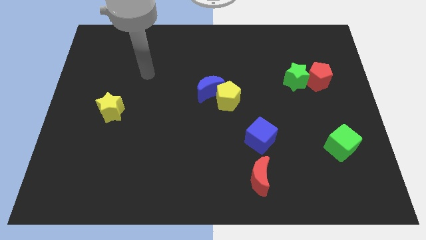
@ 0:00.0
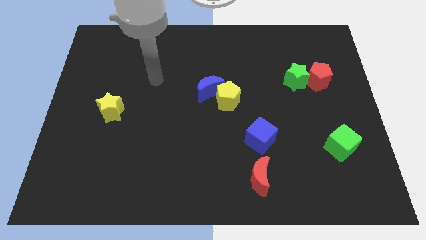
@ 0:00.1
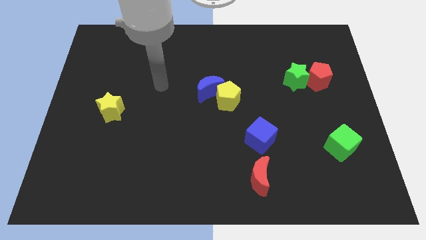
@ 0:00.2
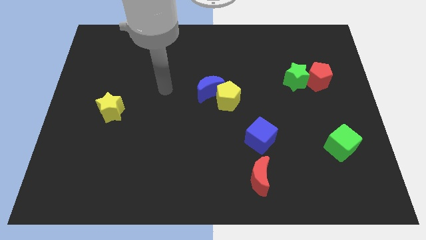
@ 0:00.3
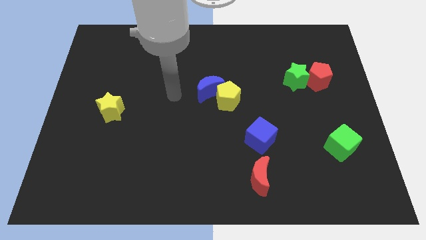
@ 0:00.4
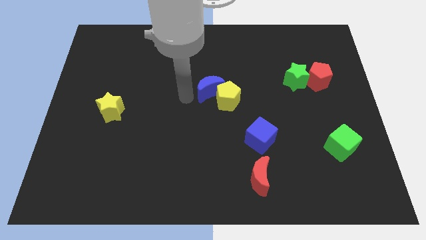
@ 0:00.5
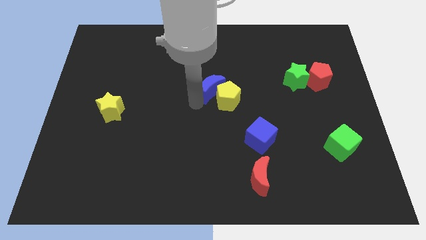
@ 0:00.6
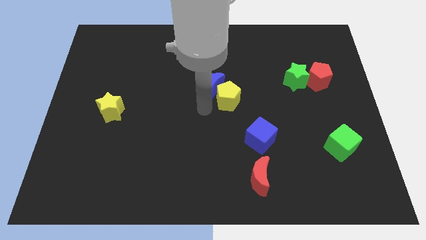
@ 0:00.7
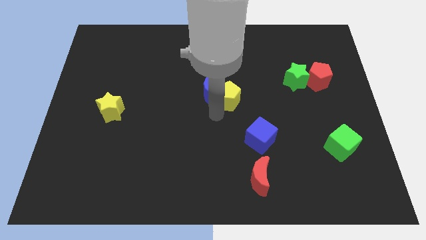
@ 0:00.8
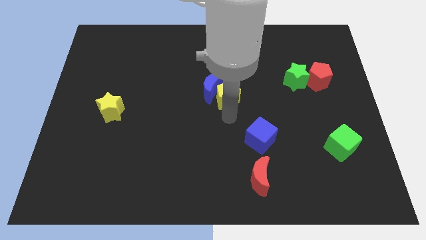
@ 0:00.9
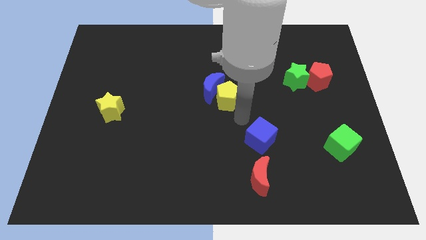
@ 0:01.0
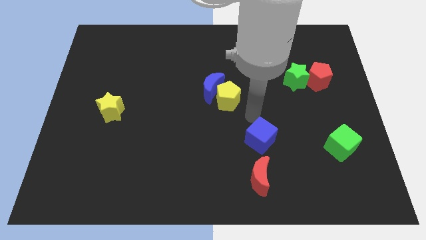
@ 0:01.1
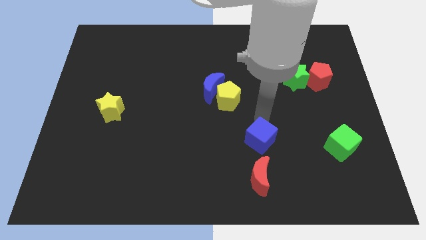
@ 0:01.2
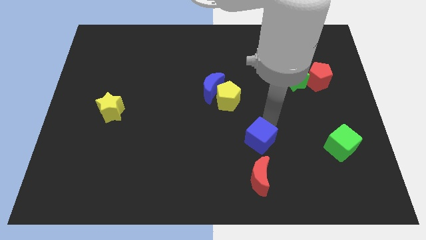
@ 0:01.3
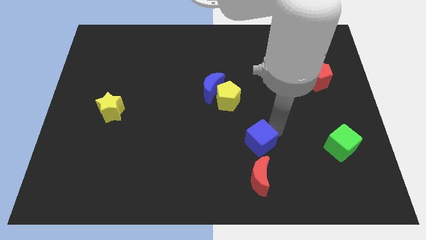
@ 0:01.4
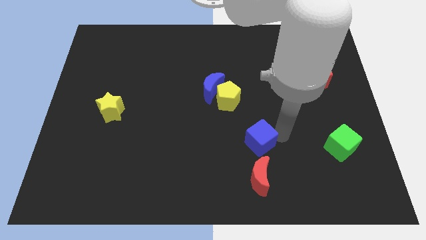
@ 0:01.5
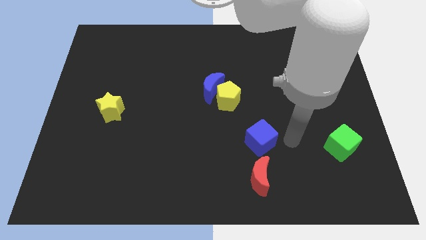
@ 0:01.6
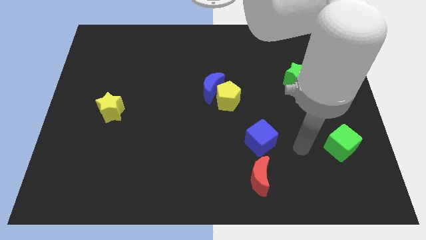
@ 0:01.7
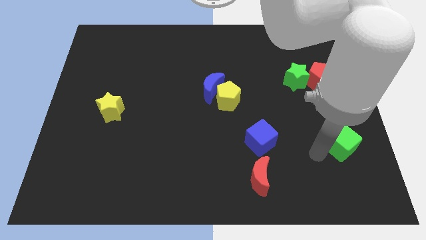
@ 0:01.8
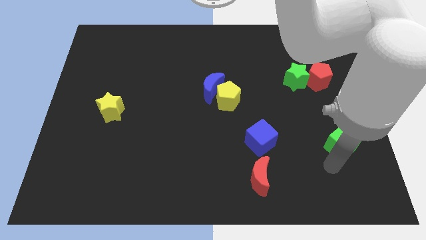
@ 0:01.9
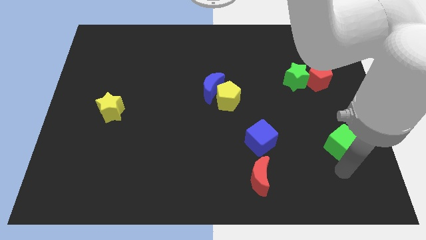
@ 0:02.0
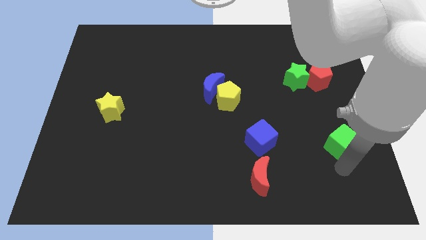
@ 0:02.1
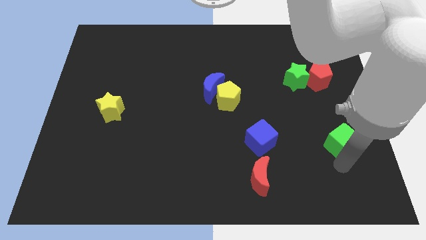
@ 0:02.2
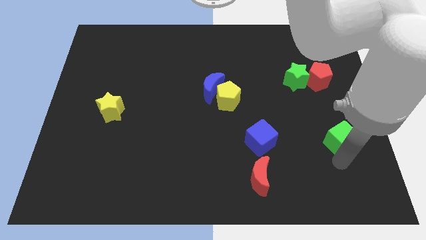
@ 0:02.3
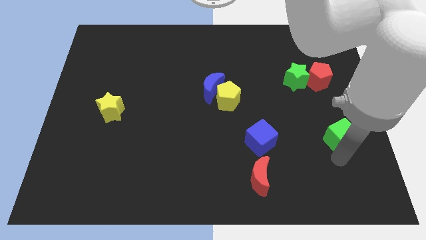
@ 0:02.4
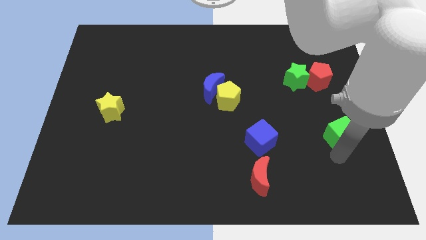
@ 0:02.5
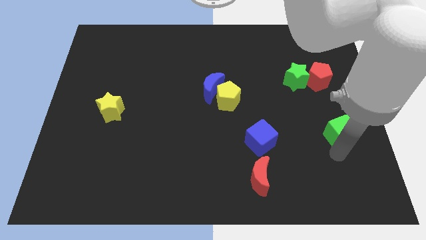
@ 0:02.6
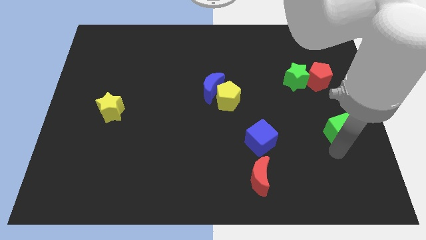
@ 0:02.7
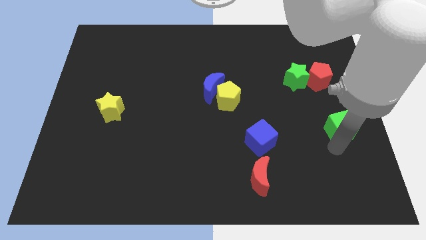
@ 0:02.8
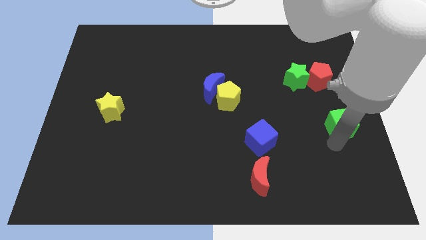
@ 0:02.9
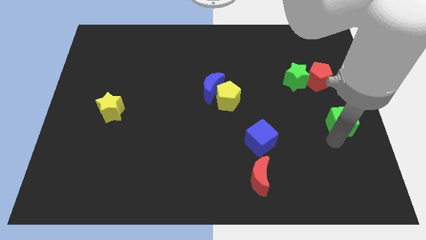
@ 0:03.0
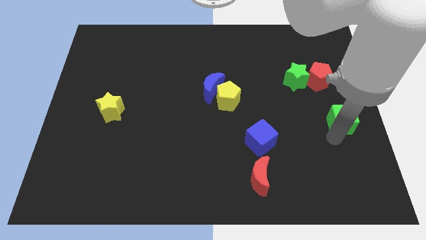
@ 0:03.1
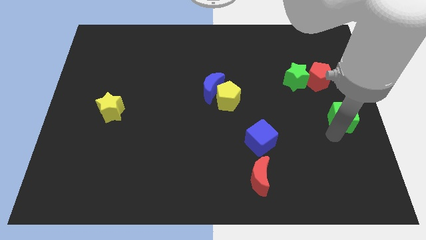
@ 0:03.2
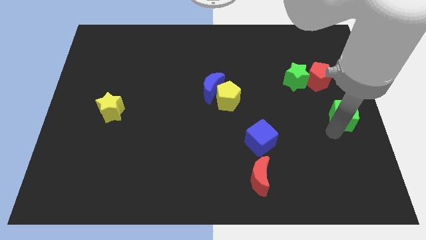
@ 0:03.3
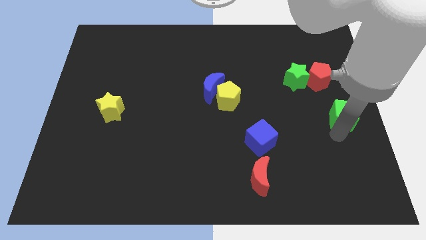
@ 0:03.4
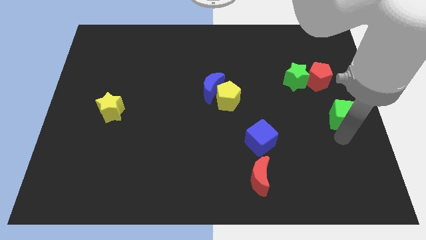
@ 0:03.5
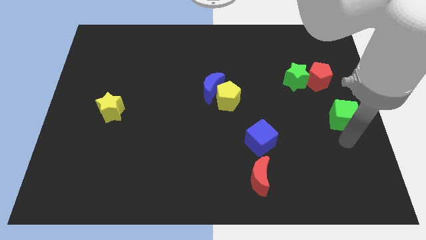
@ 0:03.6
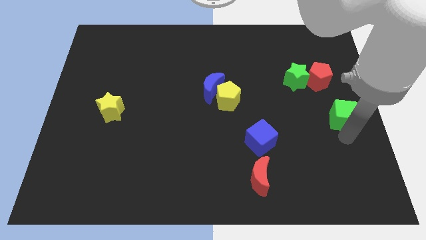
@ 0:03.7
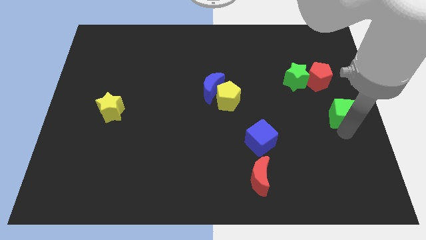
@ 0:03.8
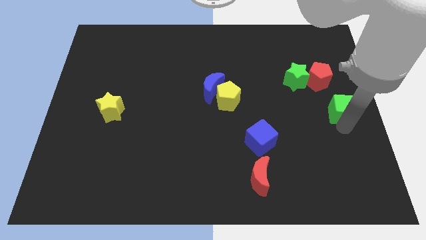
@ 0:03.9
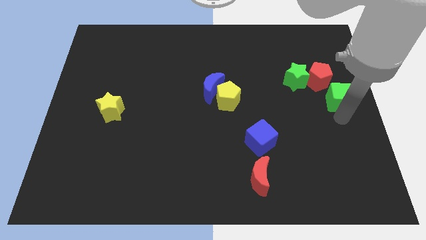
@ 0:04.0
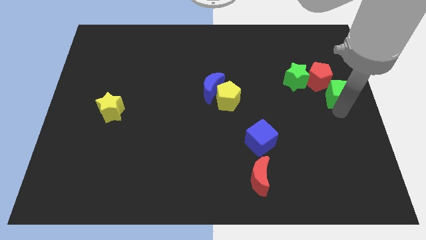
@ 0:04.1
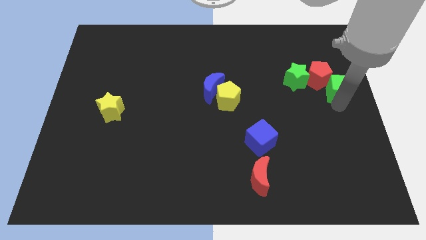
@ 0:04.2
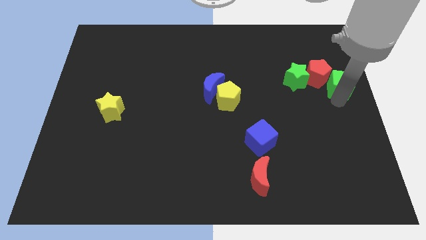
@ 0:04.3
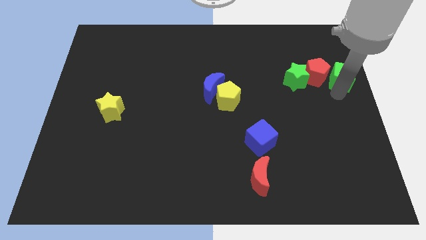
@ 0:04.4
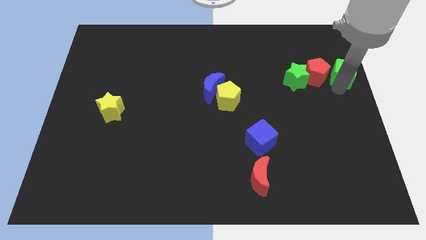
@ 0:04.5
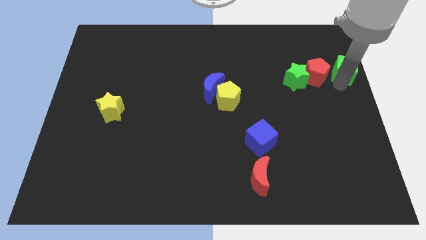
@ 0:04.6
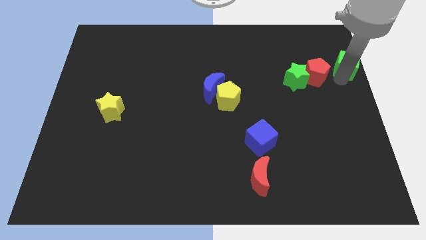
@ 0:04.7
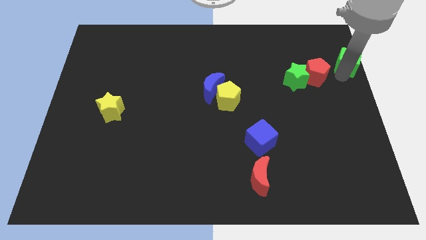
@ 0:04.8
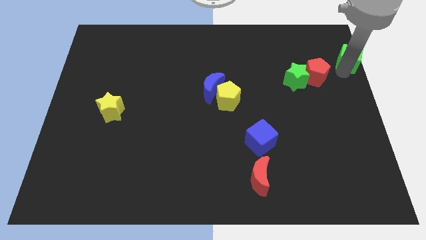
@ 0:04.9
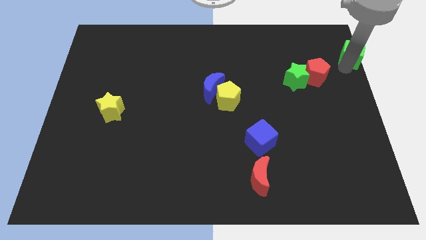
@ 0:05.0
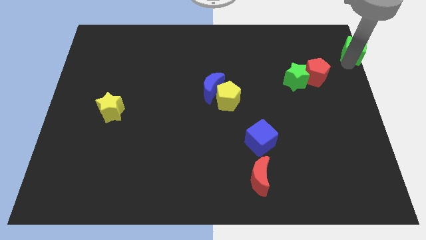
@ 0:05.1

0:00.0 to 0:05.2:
slide the green cube to the upper right corner

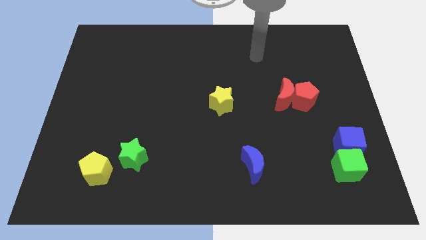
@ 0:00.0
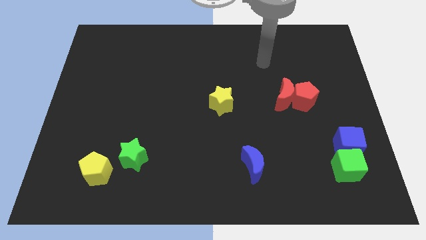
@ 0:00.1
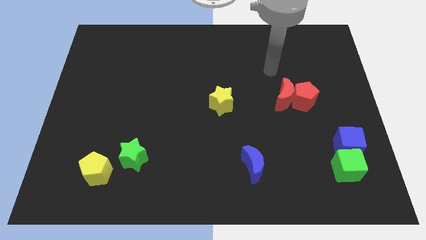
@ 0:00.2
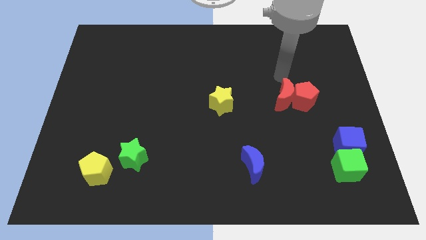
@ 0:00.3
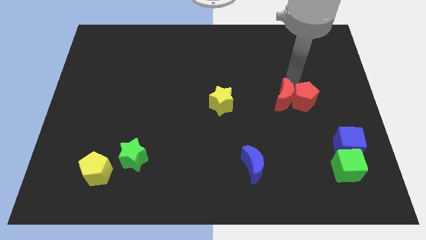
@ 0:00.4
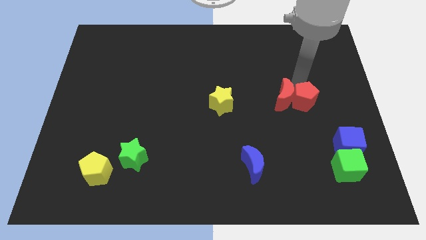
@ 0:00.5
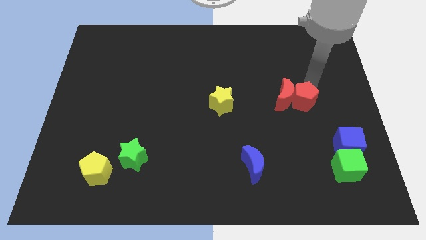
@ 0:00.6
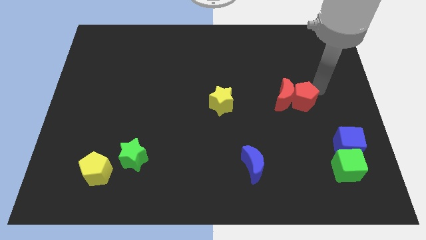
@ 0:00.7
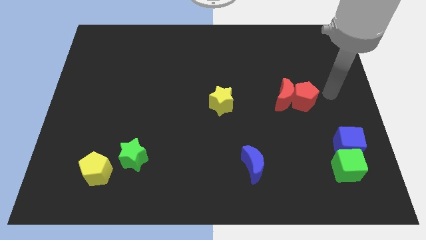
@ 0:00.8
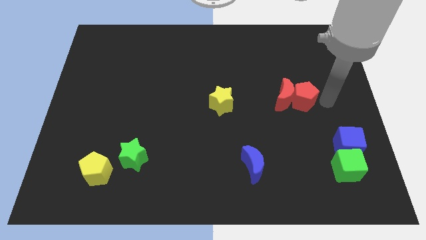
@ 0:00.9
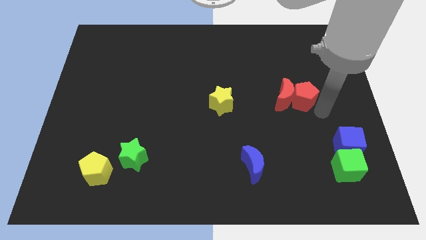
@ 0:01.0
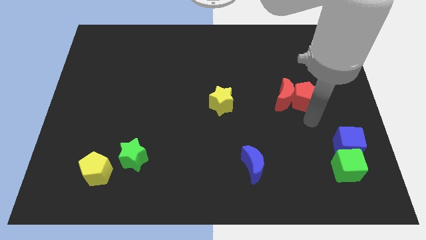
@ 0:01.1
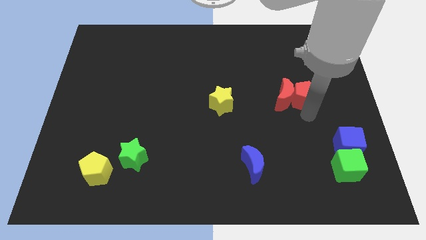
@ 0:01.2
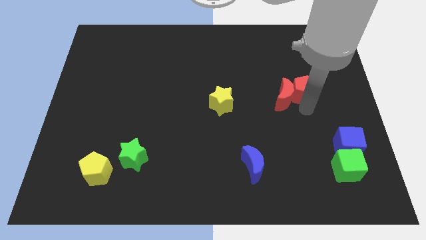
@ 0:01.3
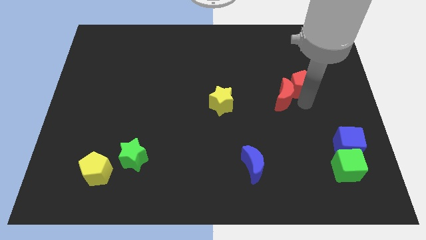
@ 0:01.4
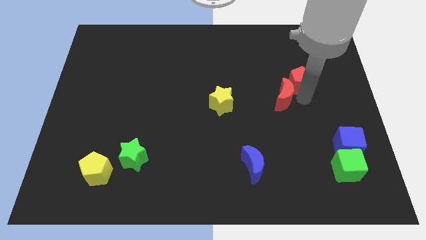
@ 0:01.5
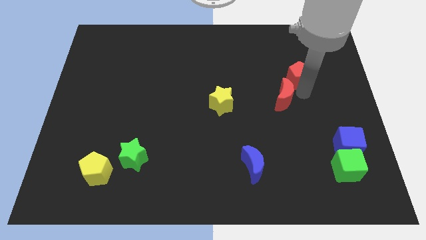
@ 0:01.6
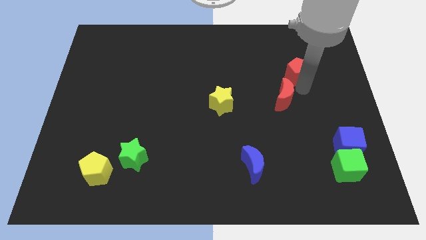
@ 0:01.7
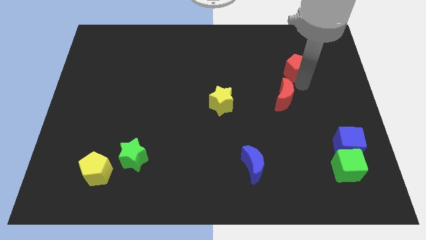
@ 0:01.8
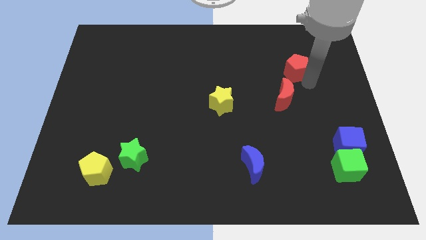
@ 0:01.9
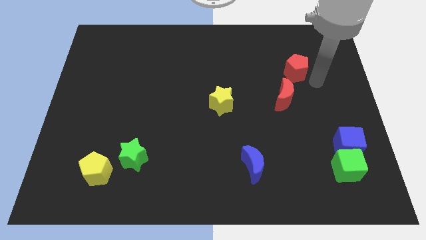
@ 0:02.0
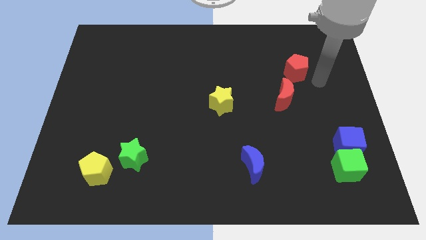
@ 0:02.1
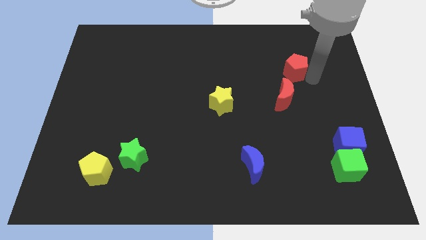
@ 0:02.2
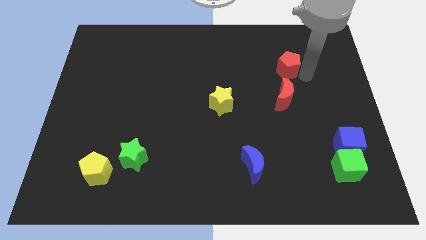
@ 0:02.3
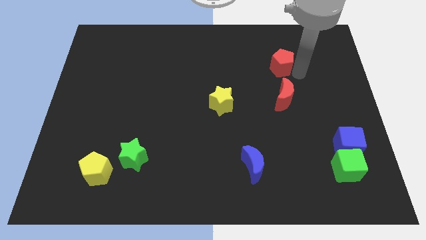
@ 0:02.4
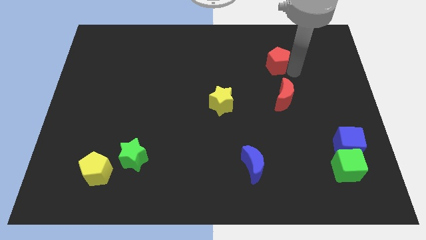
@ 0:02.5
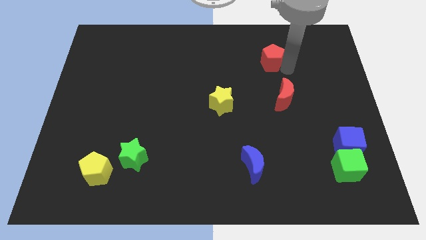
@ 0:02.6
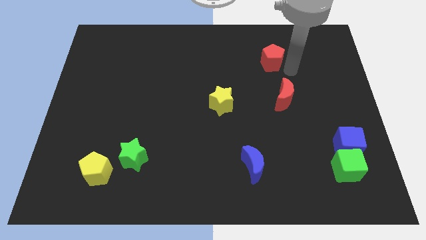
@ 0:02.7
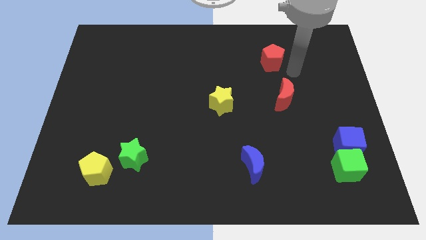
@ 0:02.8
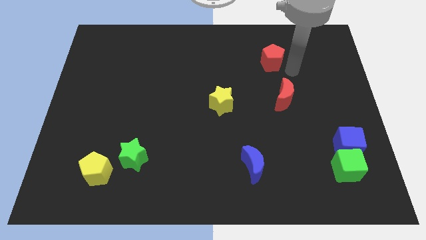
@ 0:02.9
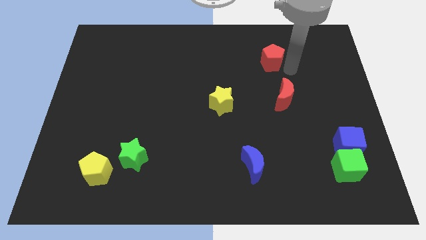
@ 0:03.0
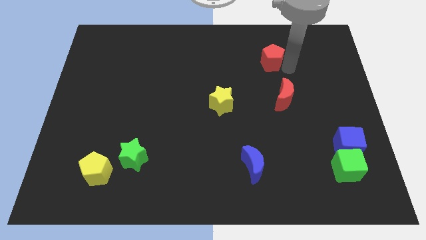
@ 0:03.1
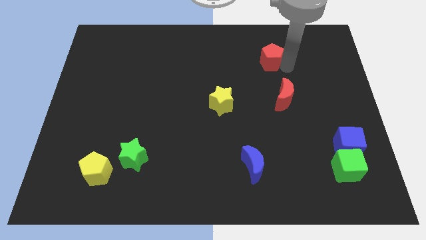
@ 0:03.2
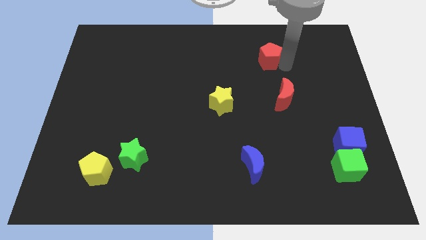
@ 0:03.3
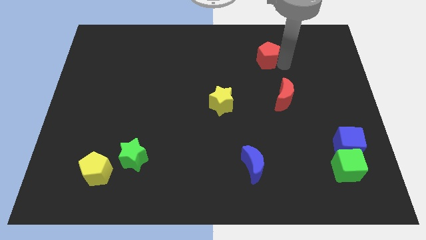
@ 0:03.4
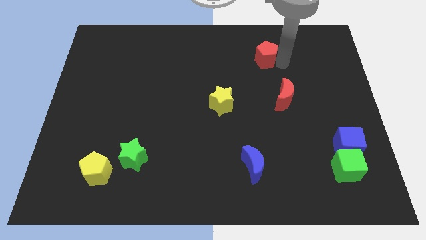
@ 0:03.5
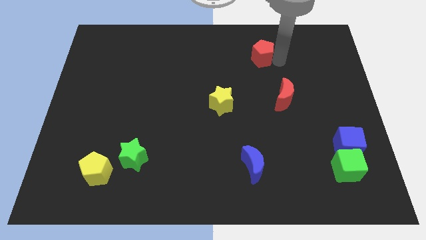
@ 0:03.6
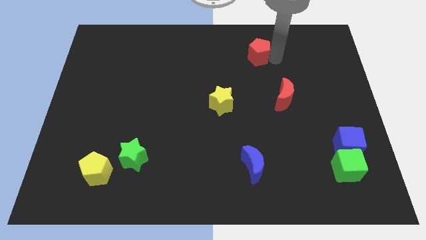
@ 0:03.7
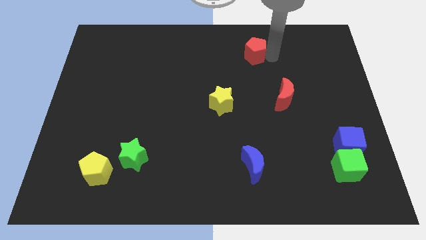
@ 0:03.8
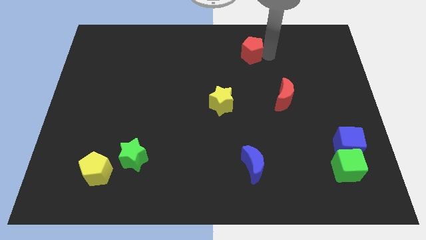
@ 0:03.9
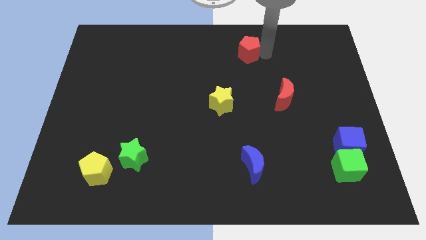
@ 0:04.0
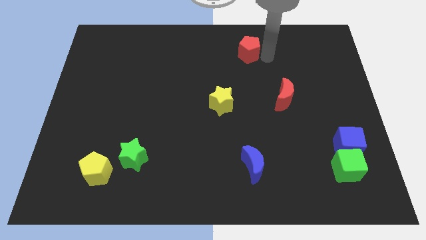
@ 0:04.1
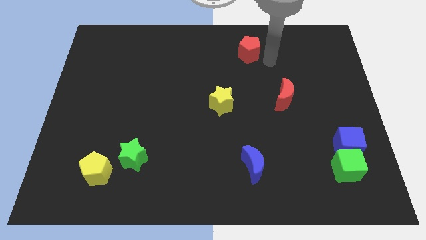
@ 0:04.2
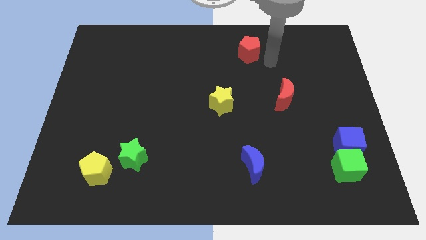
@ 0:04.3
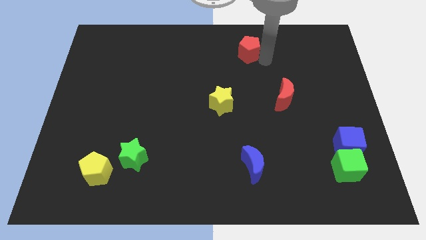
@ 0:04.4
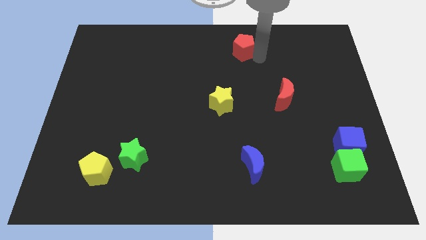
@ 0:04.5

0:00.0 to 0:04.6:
slide the red pentagon to the top side
